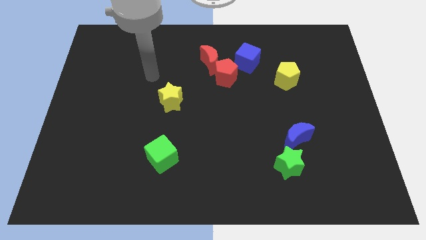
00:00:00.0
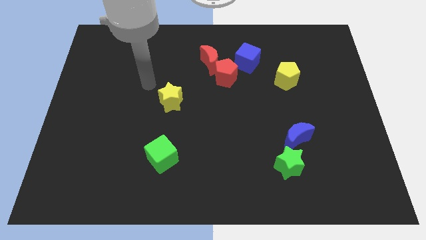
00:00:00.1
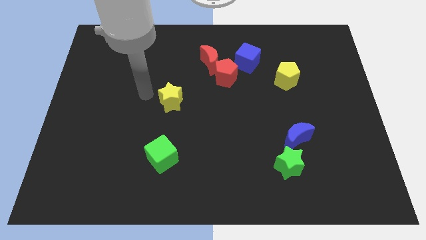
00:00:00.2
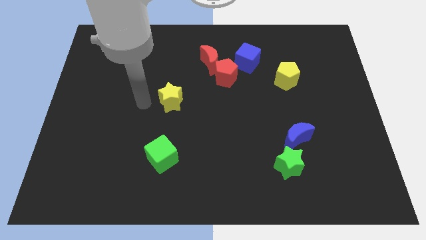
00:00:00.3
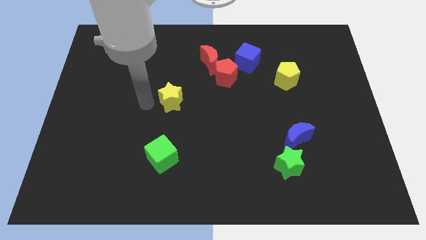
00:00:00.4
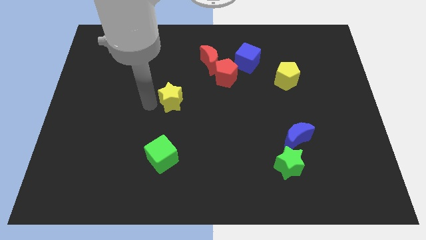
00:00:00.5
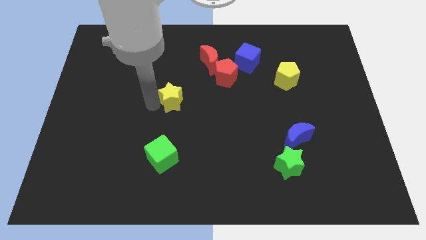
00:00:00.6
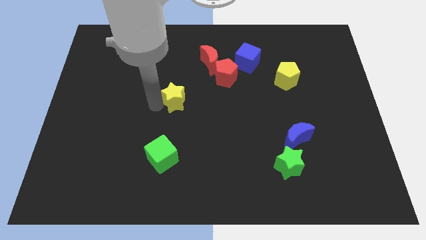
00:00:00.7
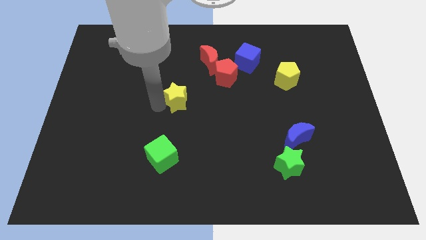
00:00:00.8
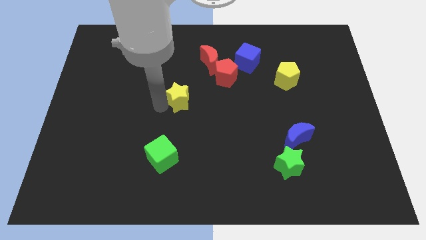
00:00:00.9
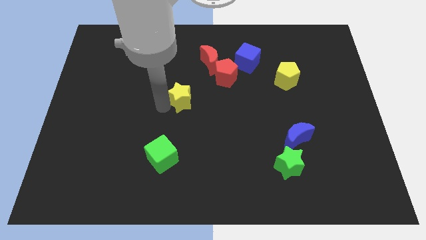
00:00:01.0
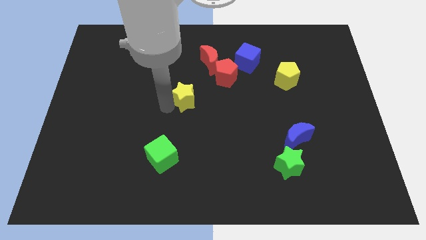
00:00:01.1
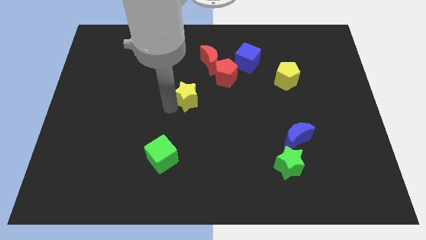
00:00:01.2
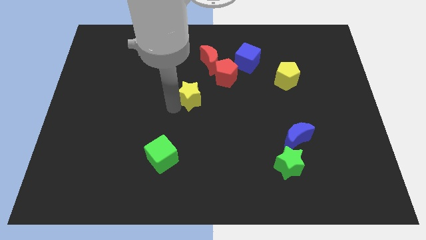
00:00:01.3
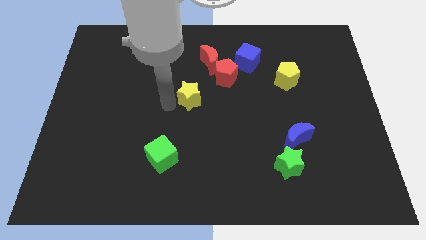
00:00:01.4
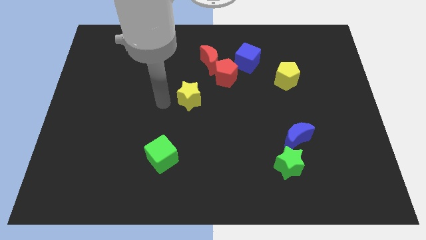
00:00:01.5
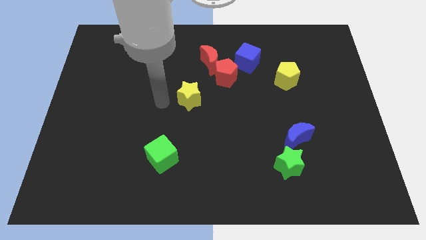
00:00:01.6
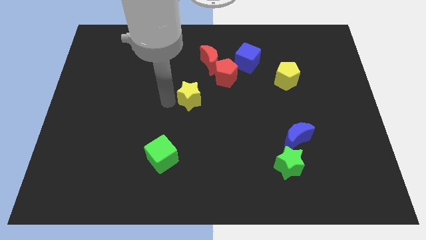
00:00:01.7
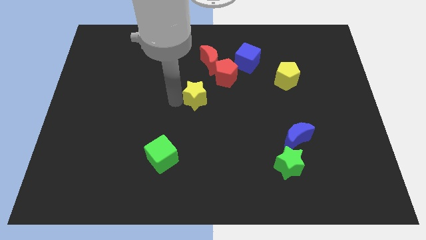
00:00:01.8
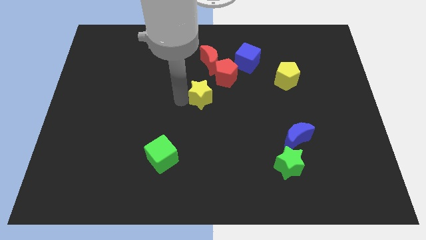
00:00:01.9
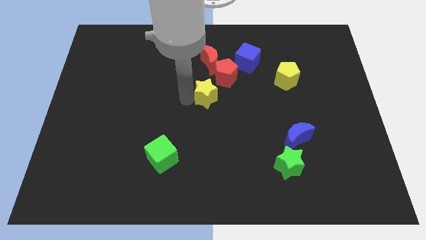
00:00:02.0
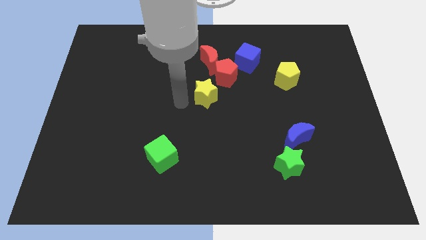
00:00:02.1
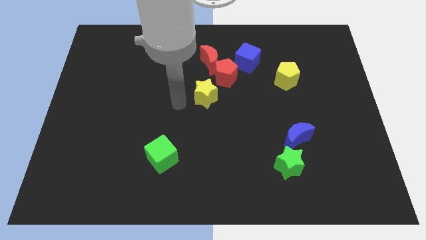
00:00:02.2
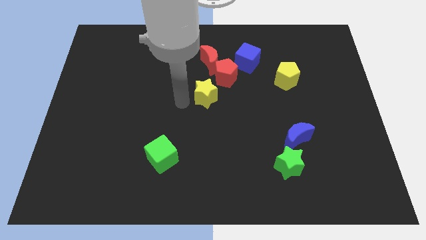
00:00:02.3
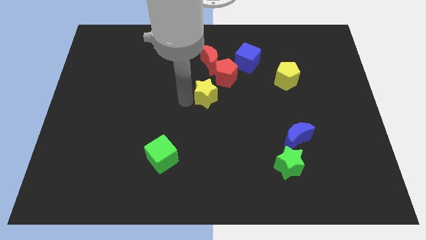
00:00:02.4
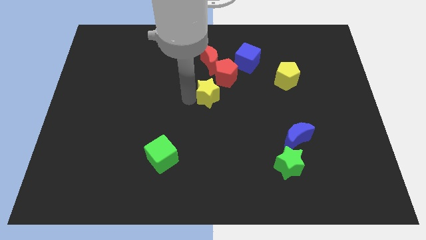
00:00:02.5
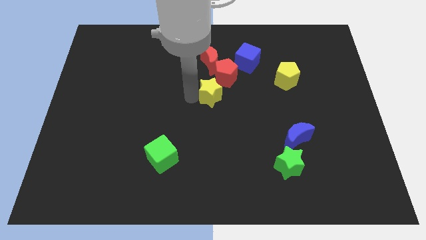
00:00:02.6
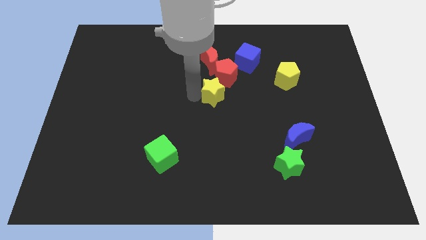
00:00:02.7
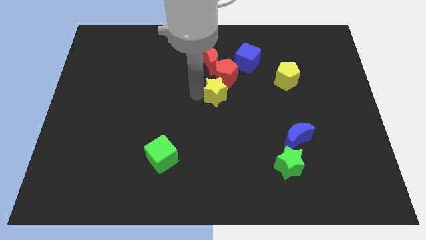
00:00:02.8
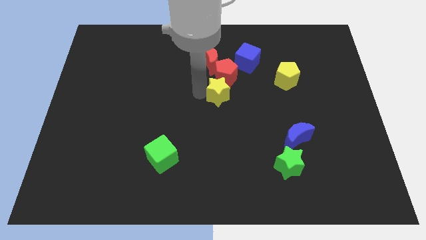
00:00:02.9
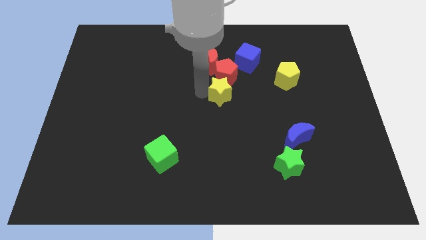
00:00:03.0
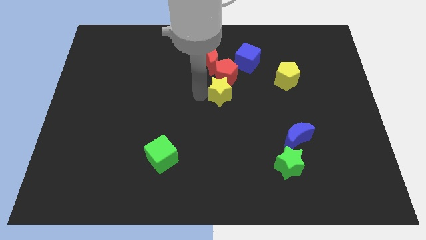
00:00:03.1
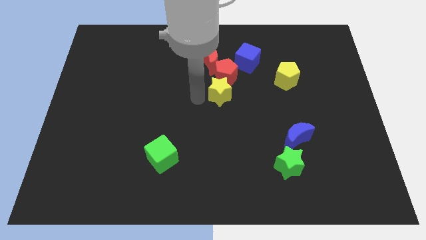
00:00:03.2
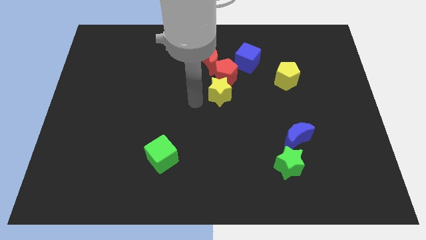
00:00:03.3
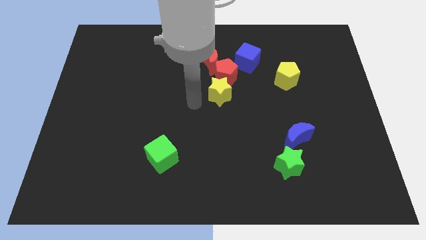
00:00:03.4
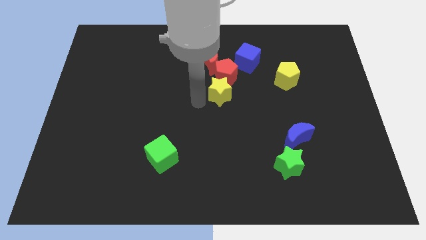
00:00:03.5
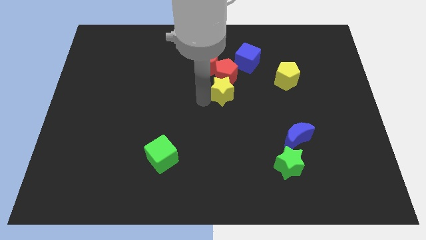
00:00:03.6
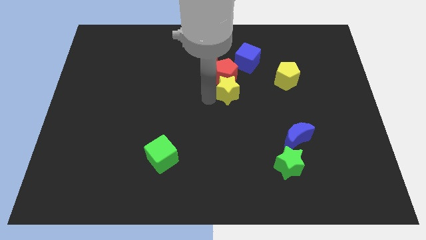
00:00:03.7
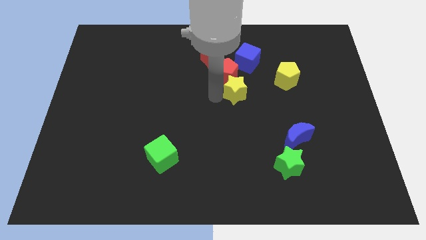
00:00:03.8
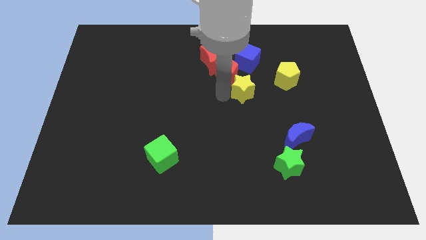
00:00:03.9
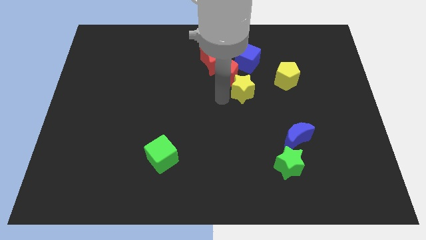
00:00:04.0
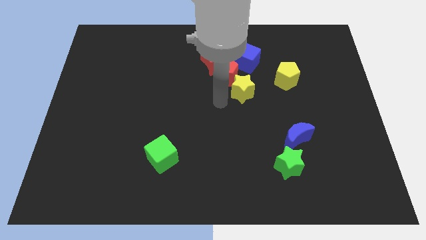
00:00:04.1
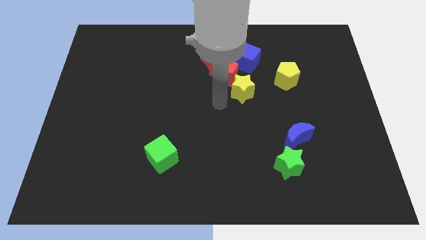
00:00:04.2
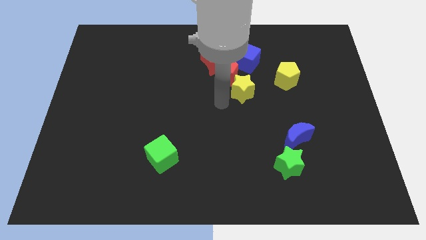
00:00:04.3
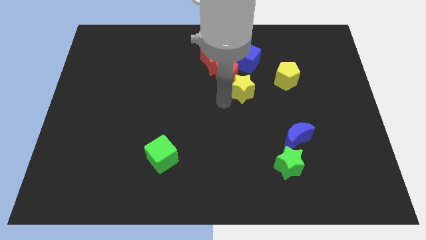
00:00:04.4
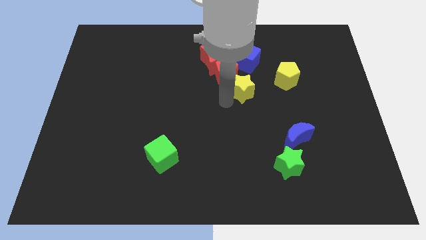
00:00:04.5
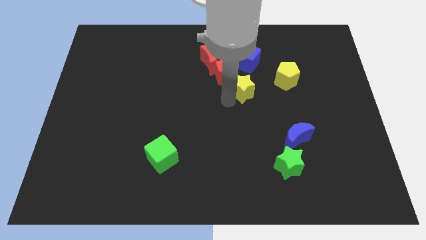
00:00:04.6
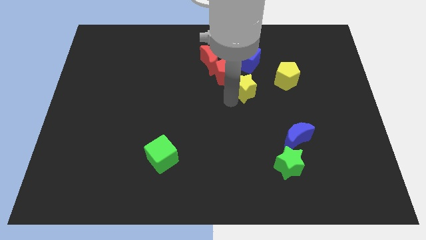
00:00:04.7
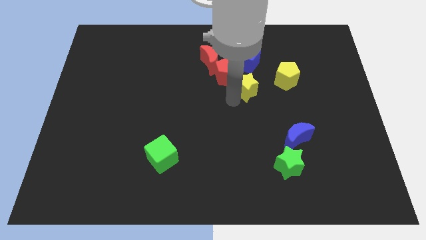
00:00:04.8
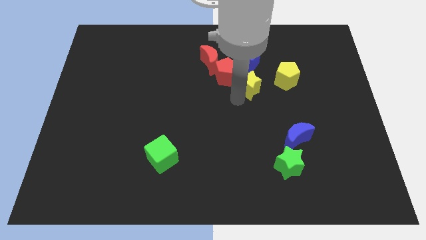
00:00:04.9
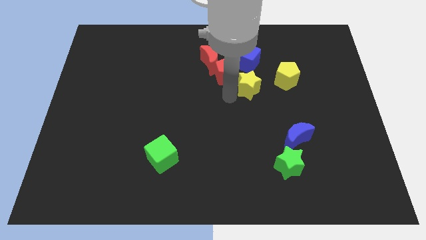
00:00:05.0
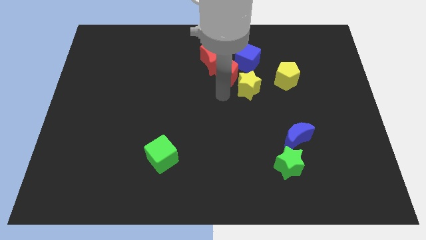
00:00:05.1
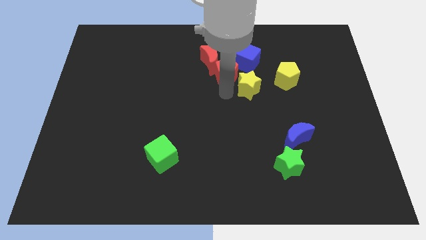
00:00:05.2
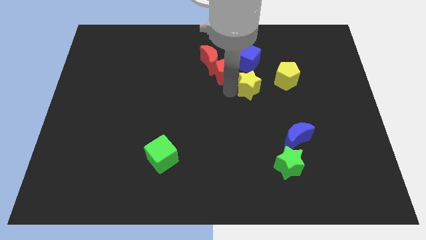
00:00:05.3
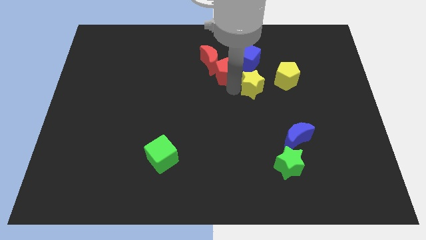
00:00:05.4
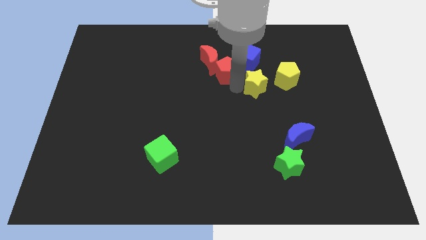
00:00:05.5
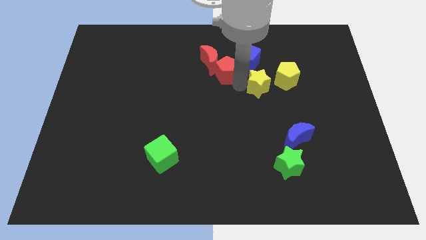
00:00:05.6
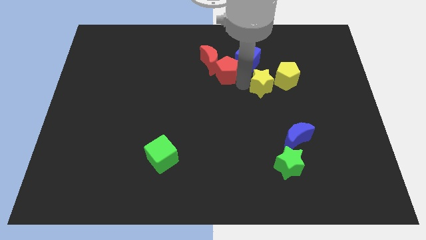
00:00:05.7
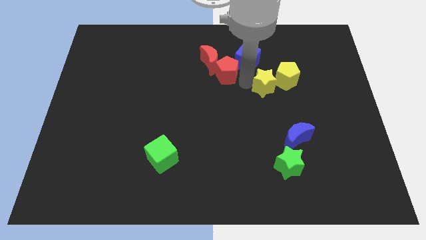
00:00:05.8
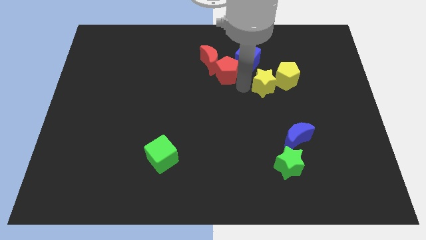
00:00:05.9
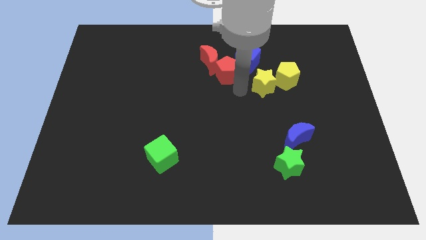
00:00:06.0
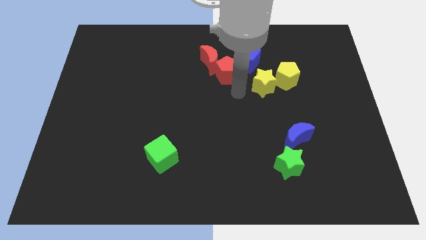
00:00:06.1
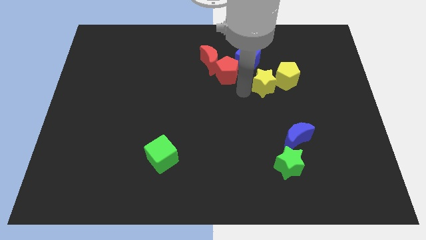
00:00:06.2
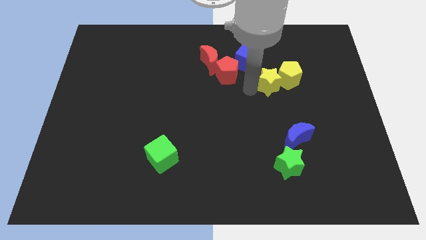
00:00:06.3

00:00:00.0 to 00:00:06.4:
push the yellow star close to the yellow pentagon

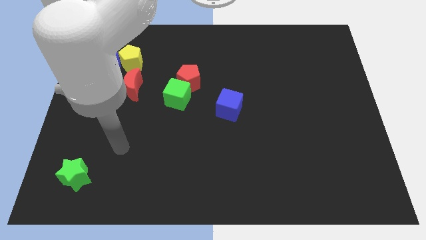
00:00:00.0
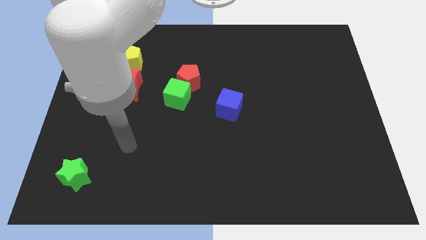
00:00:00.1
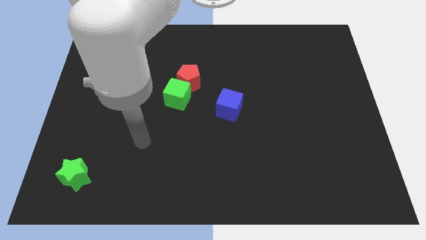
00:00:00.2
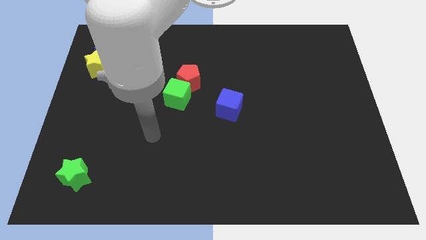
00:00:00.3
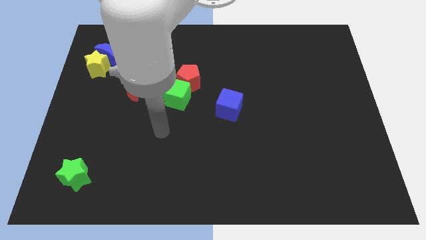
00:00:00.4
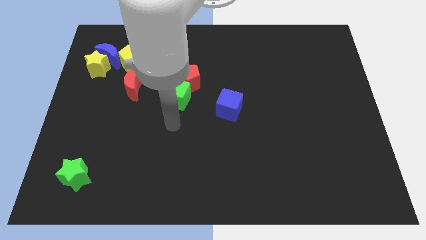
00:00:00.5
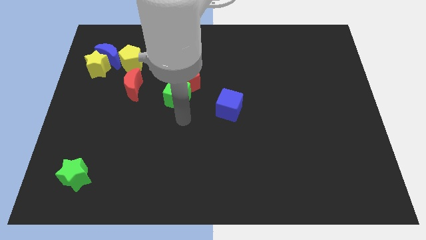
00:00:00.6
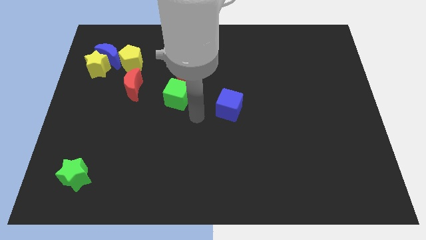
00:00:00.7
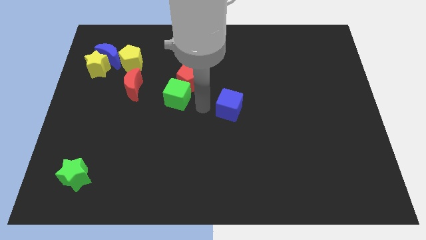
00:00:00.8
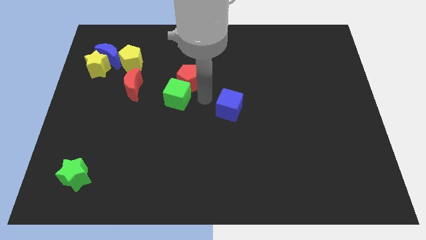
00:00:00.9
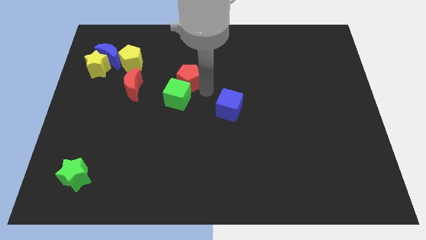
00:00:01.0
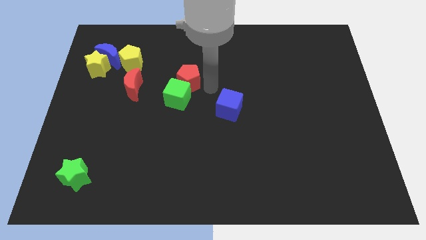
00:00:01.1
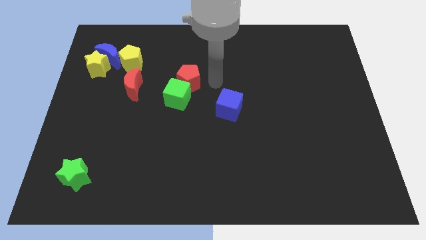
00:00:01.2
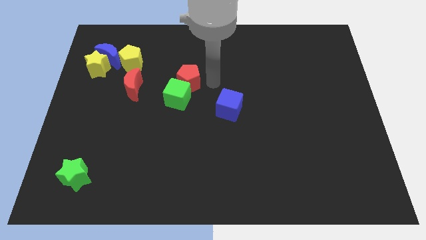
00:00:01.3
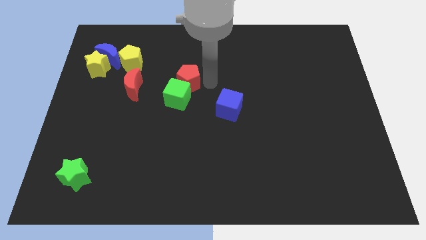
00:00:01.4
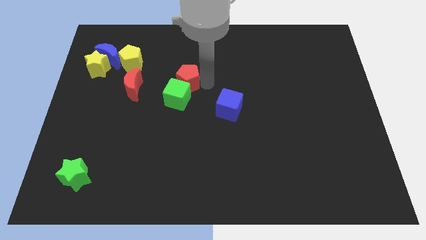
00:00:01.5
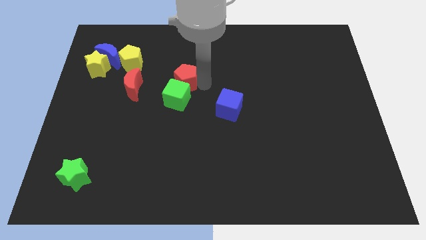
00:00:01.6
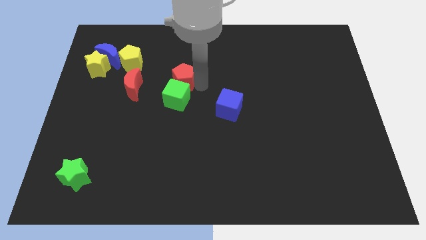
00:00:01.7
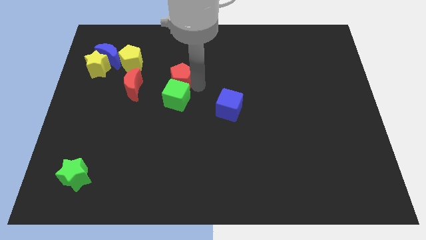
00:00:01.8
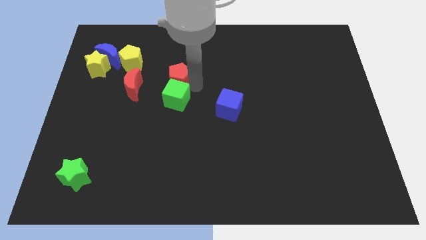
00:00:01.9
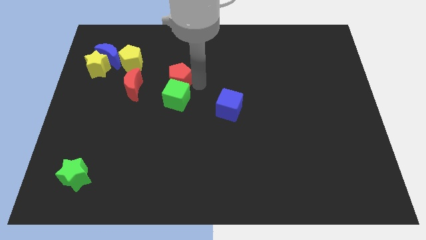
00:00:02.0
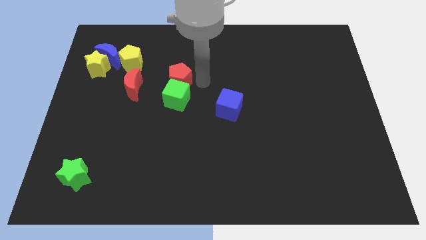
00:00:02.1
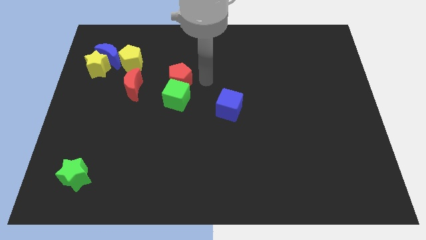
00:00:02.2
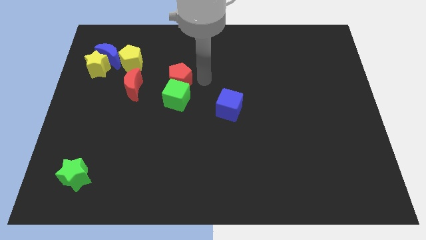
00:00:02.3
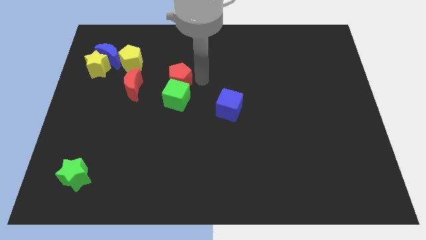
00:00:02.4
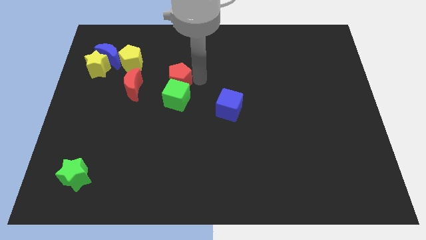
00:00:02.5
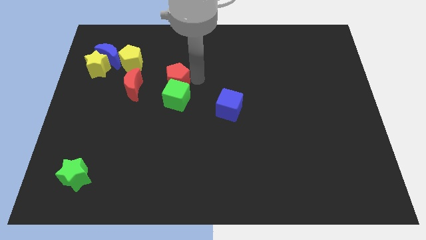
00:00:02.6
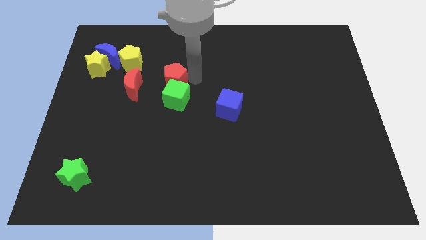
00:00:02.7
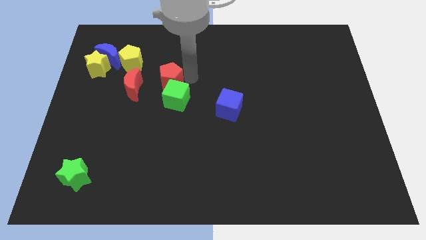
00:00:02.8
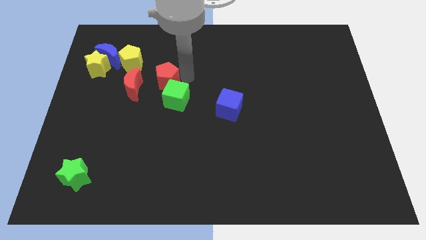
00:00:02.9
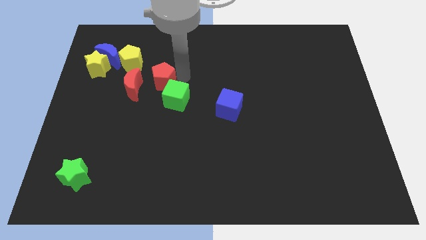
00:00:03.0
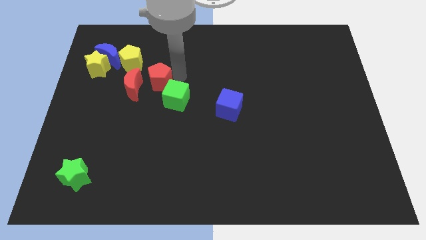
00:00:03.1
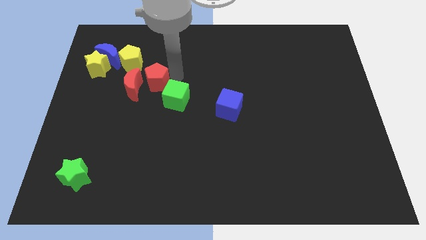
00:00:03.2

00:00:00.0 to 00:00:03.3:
slide the red pentagon close to the red moon
